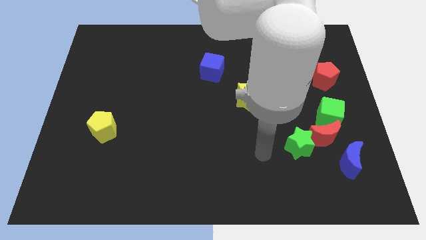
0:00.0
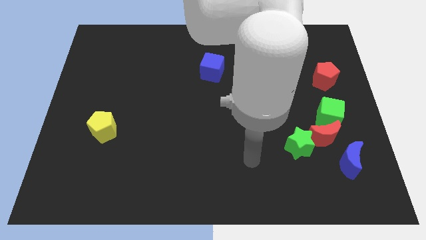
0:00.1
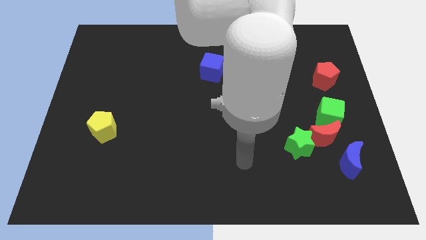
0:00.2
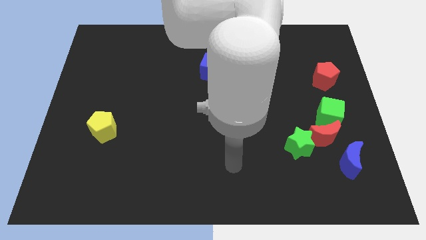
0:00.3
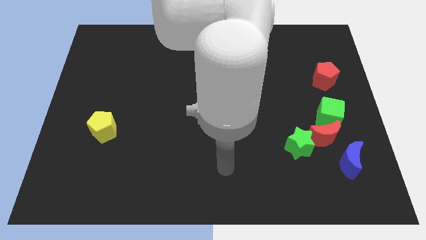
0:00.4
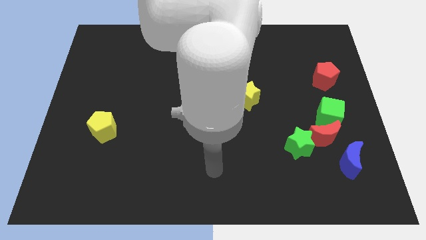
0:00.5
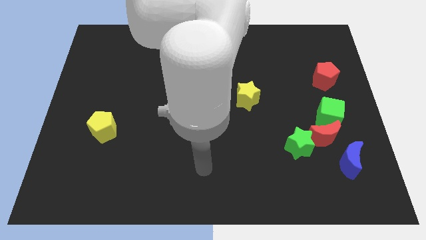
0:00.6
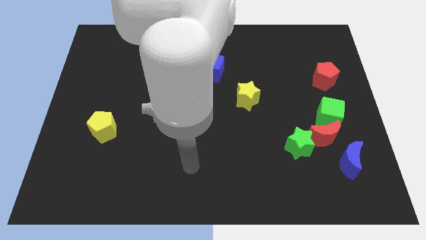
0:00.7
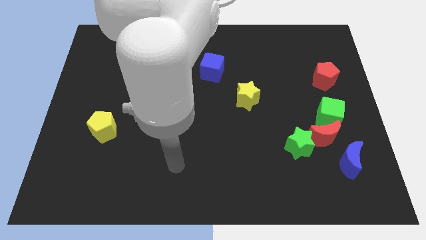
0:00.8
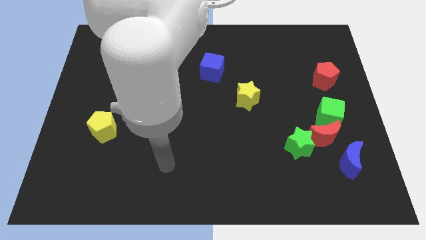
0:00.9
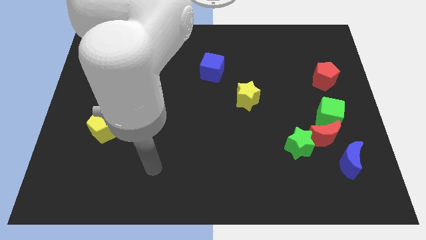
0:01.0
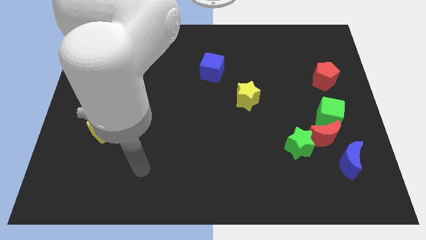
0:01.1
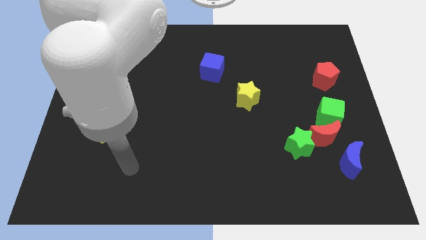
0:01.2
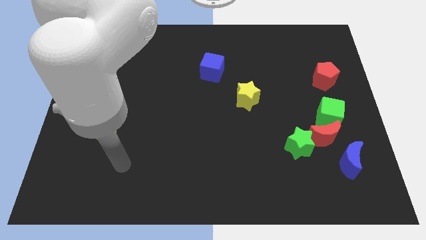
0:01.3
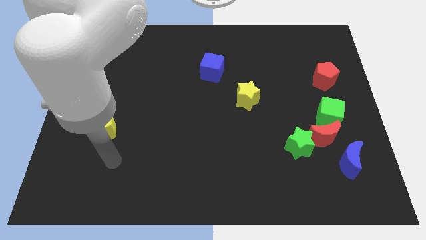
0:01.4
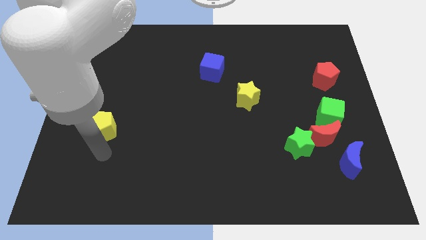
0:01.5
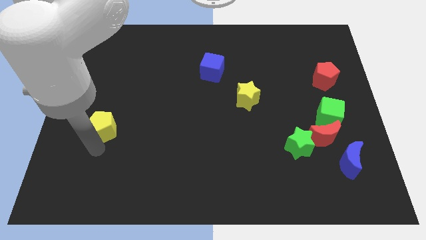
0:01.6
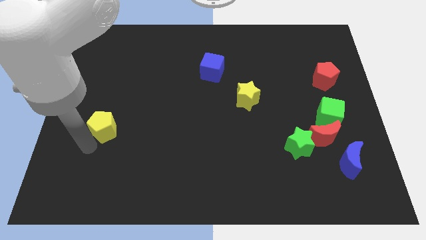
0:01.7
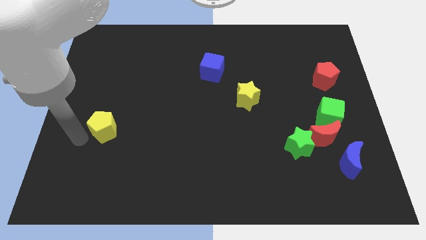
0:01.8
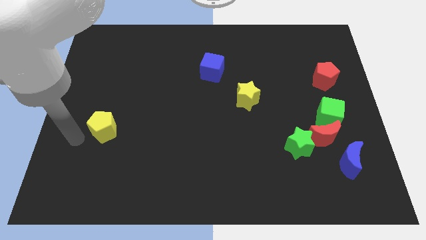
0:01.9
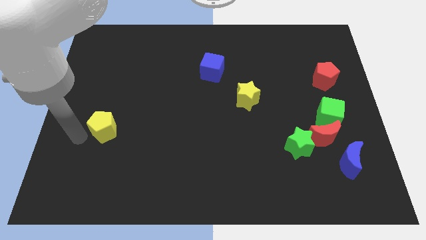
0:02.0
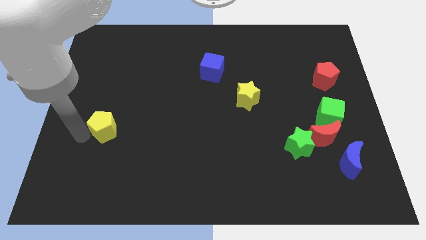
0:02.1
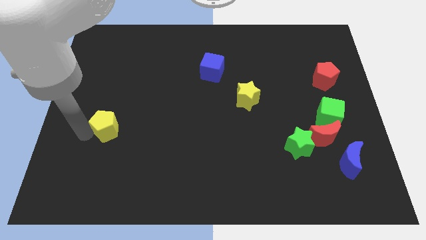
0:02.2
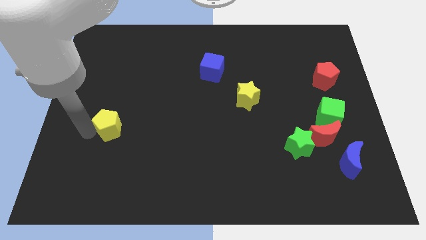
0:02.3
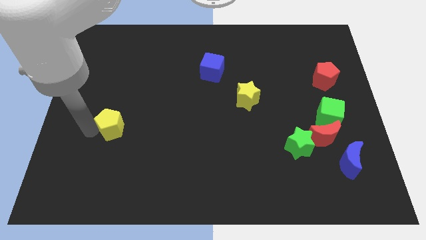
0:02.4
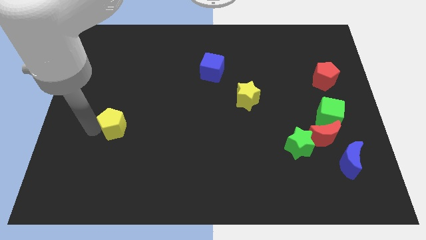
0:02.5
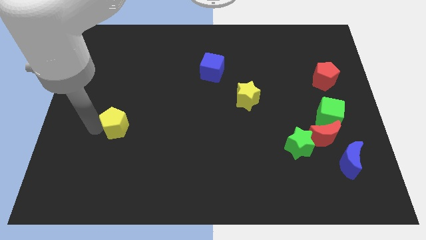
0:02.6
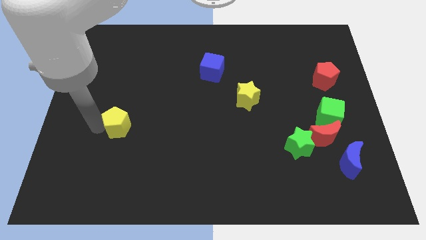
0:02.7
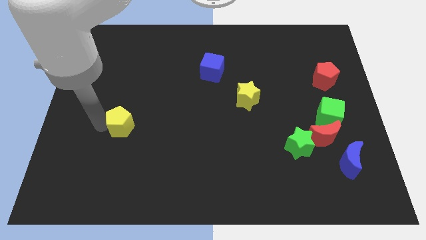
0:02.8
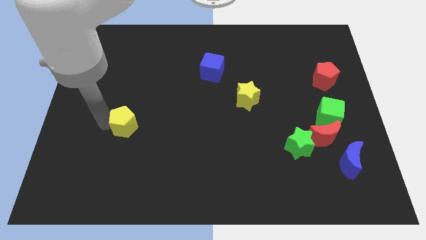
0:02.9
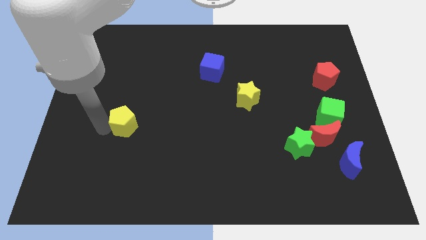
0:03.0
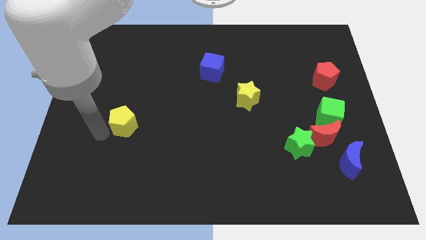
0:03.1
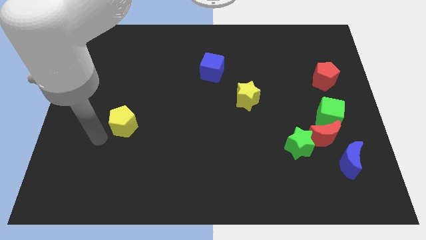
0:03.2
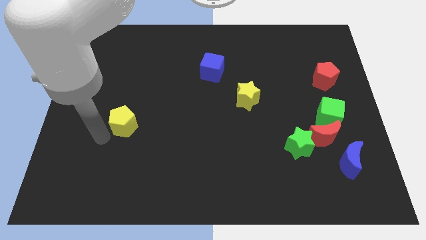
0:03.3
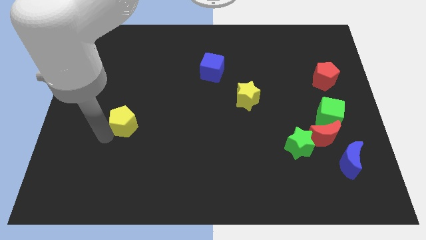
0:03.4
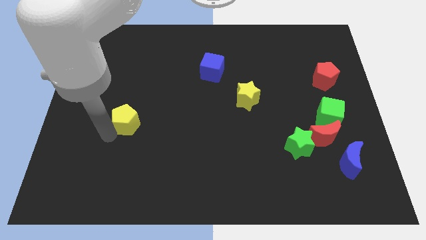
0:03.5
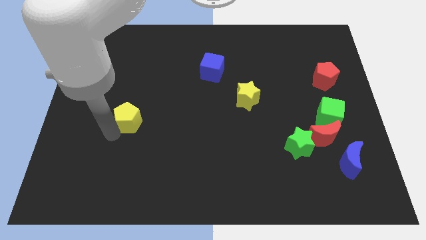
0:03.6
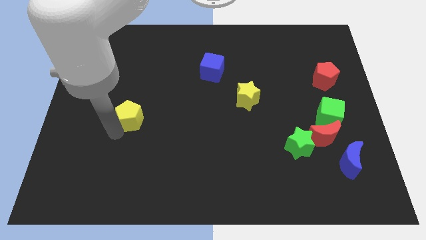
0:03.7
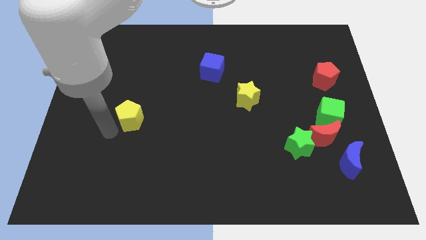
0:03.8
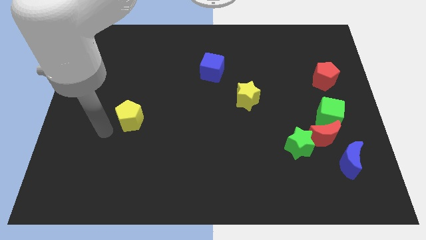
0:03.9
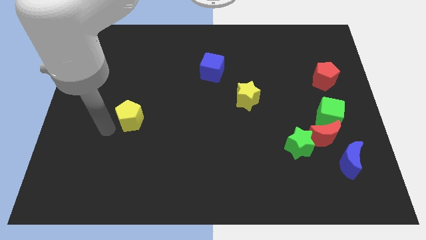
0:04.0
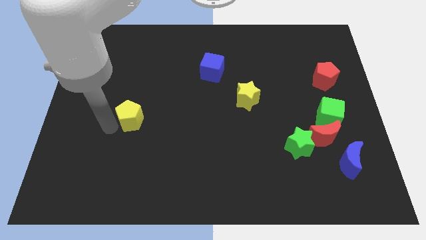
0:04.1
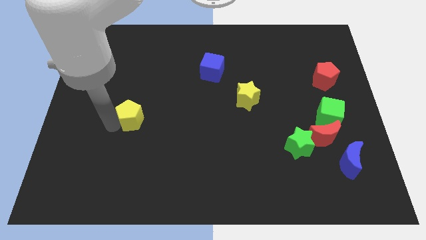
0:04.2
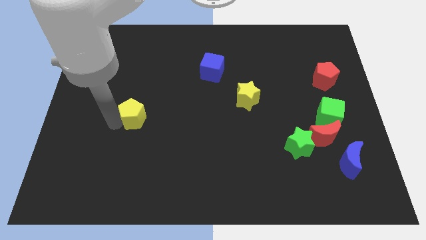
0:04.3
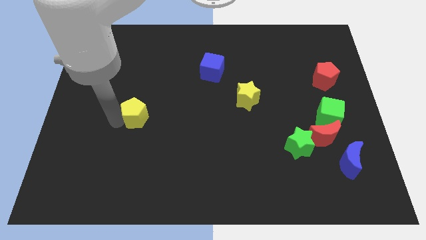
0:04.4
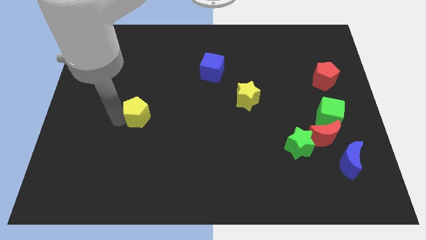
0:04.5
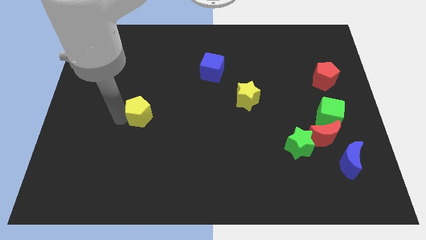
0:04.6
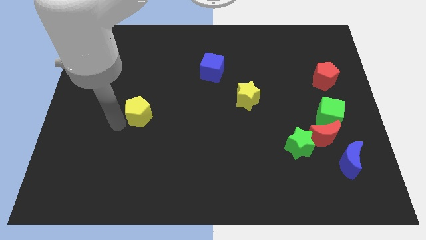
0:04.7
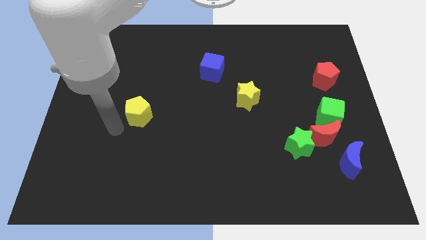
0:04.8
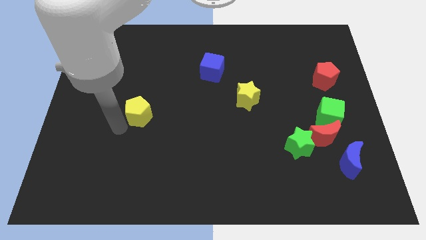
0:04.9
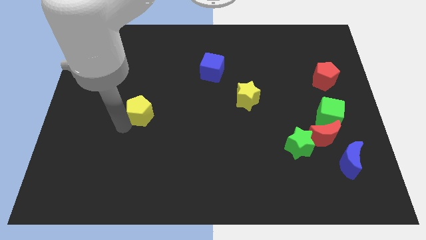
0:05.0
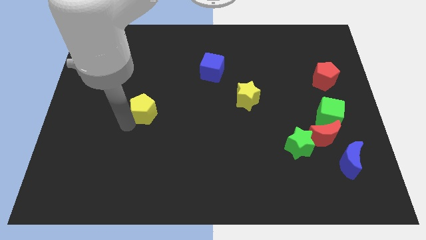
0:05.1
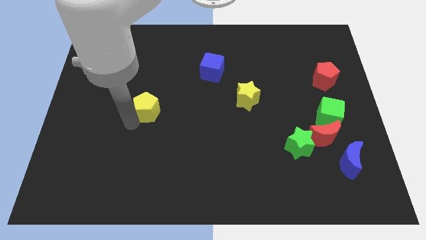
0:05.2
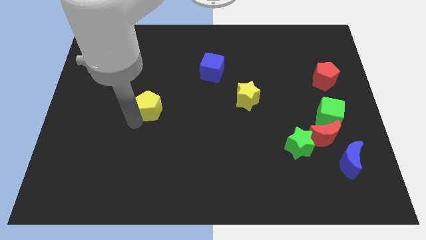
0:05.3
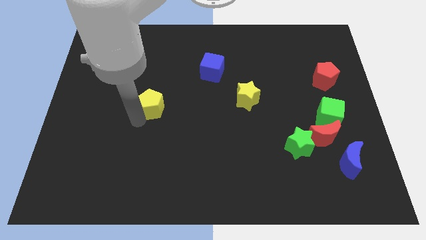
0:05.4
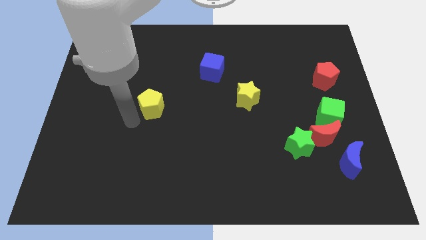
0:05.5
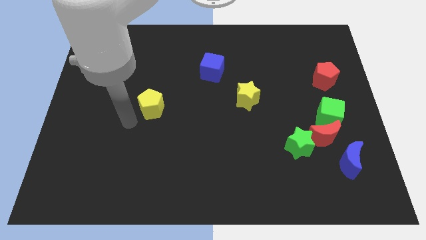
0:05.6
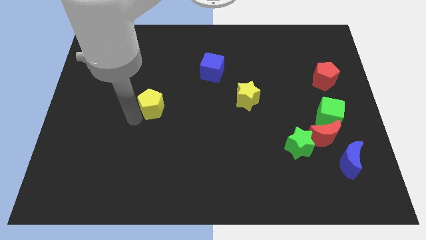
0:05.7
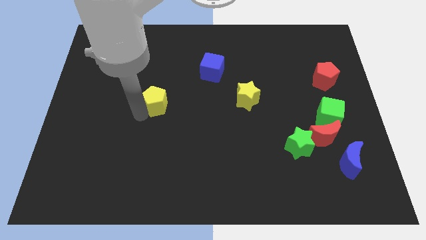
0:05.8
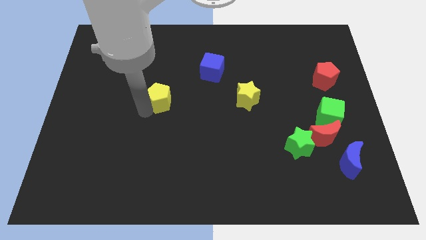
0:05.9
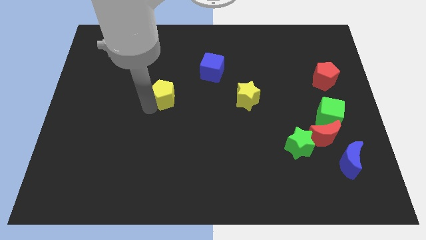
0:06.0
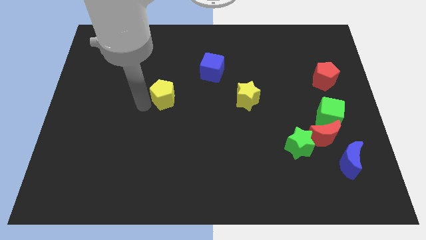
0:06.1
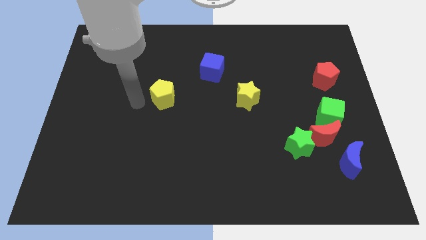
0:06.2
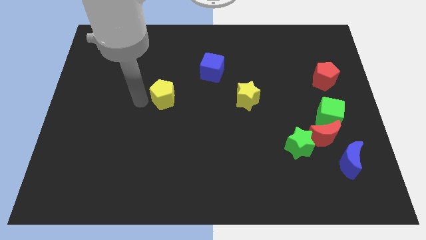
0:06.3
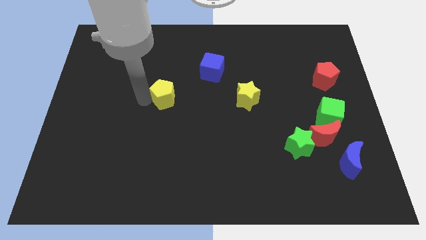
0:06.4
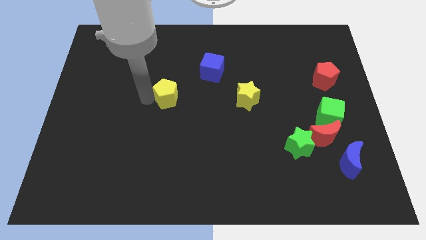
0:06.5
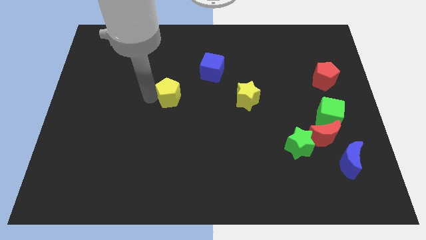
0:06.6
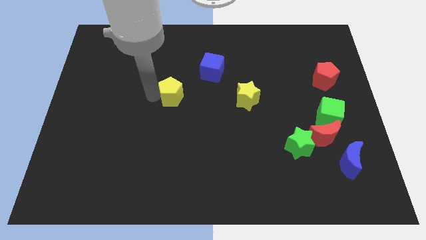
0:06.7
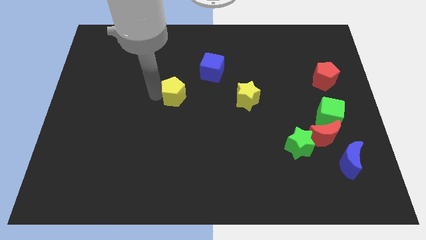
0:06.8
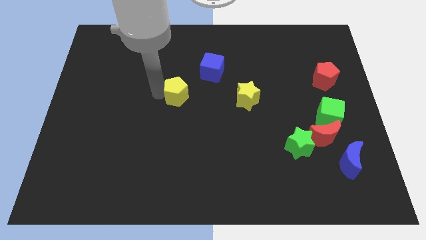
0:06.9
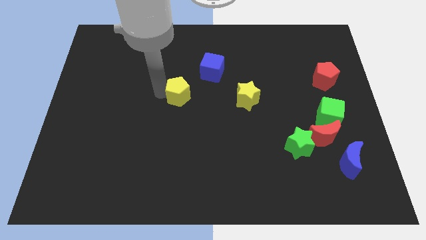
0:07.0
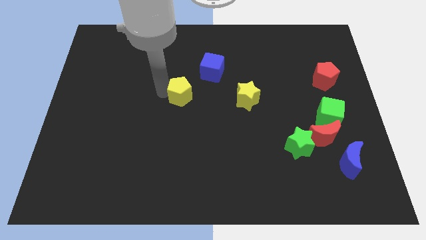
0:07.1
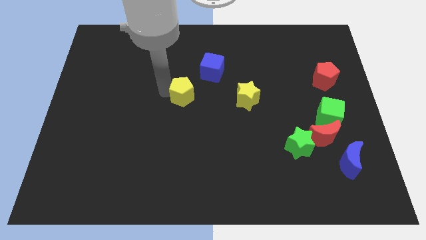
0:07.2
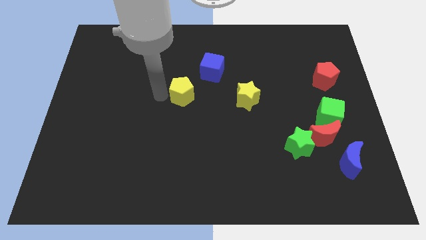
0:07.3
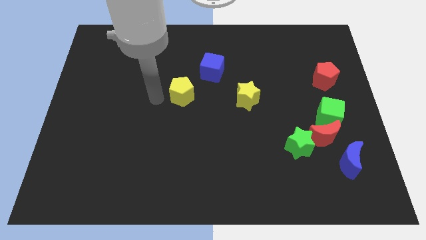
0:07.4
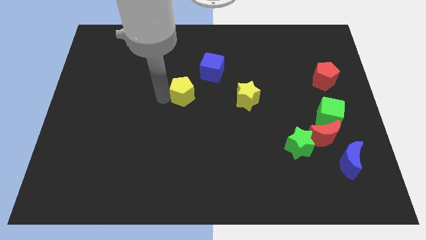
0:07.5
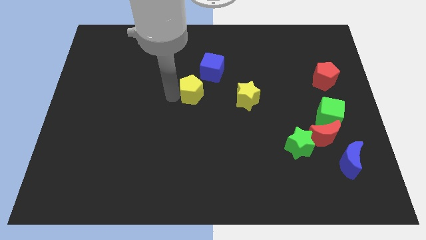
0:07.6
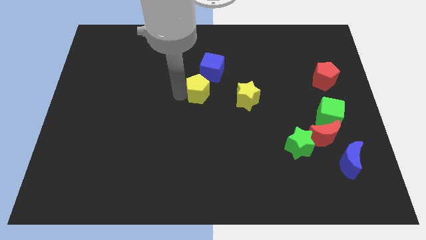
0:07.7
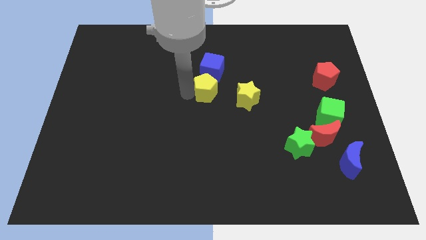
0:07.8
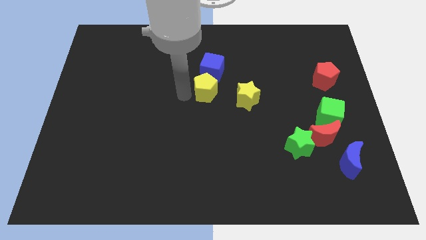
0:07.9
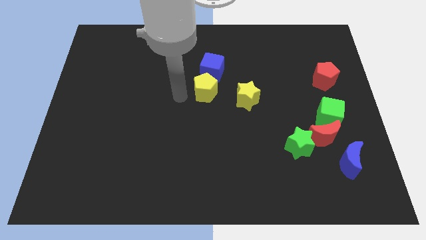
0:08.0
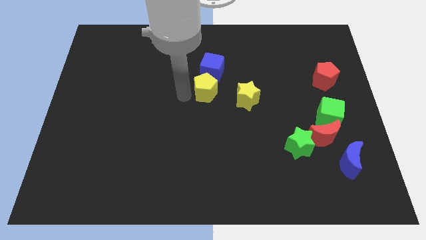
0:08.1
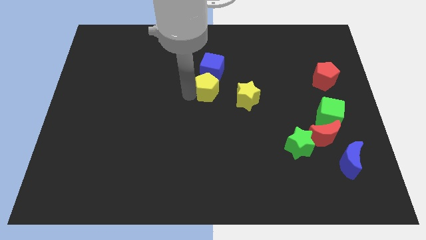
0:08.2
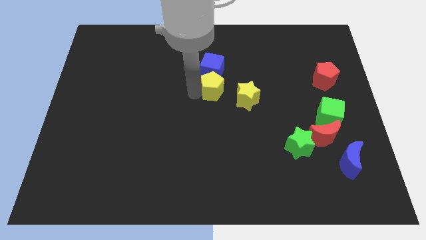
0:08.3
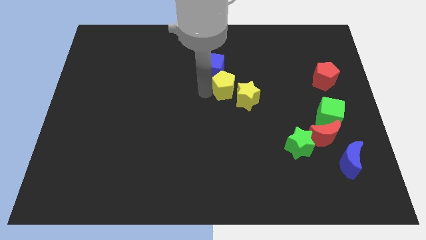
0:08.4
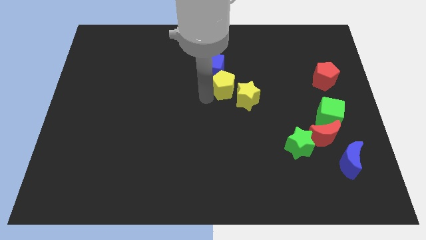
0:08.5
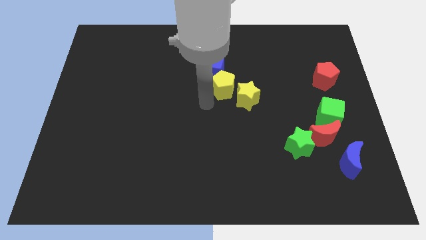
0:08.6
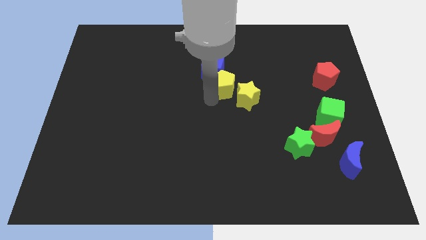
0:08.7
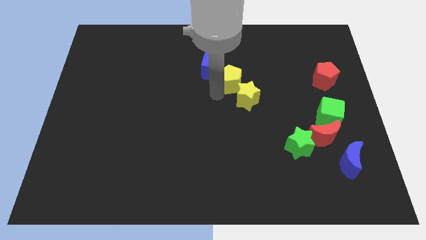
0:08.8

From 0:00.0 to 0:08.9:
put the yellow pentagon to the top side of the yellow star
